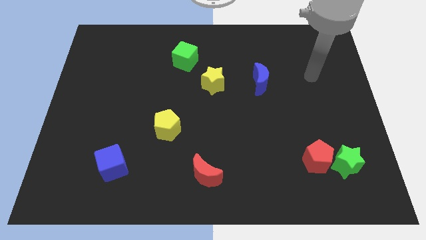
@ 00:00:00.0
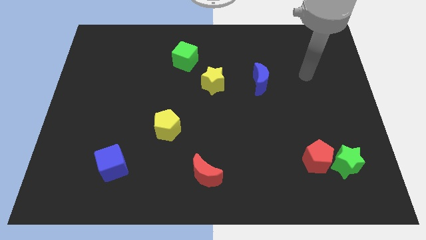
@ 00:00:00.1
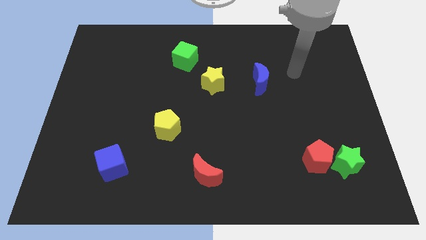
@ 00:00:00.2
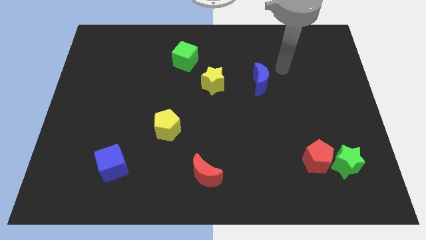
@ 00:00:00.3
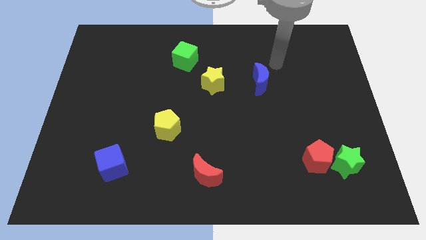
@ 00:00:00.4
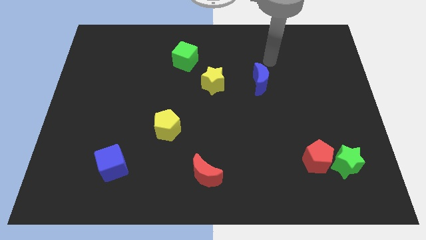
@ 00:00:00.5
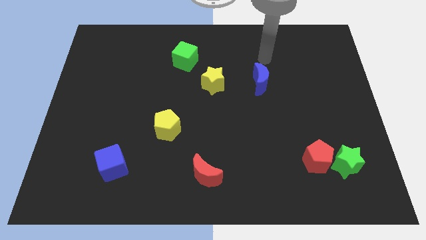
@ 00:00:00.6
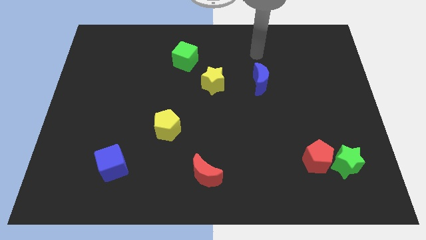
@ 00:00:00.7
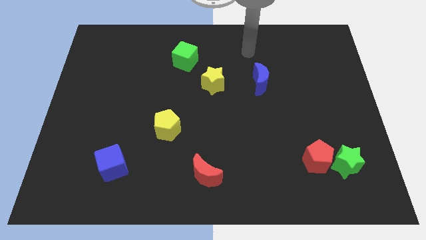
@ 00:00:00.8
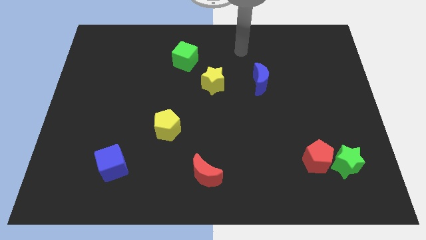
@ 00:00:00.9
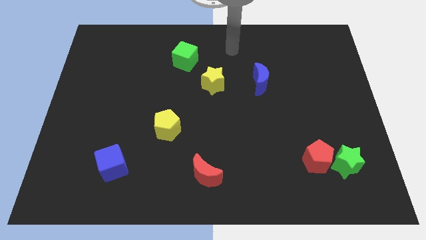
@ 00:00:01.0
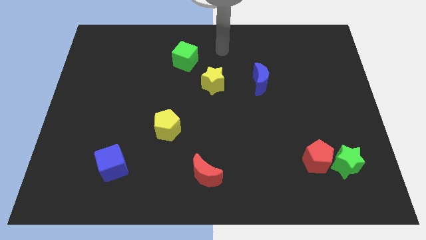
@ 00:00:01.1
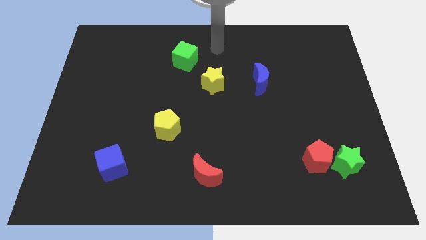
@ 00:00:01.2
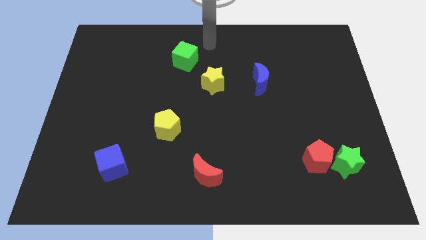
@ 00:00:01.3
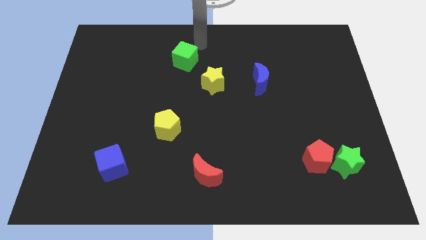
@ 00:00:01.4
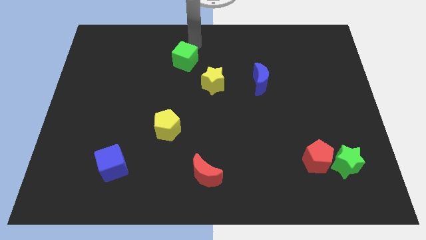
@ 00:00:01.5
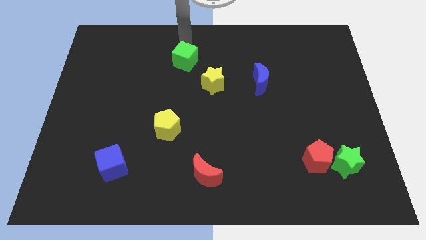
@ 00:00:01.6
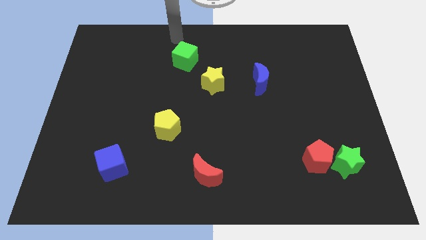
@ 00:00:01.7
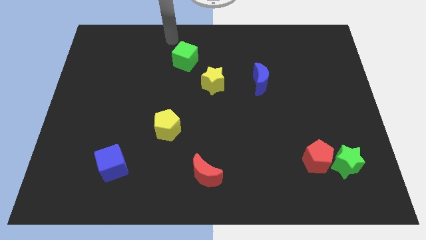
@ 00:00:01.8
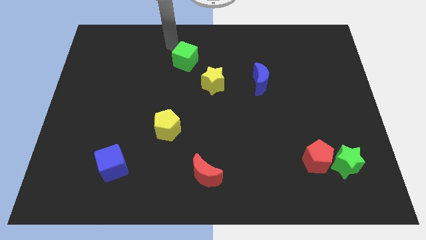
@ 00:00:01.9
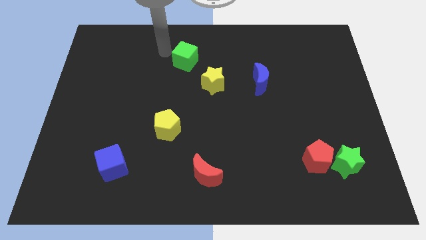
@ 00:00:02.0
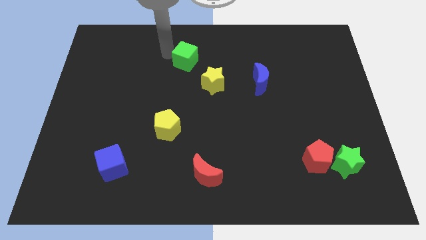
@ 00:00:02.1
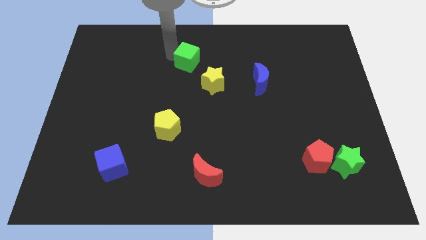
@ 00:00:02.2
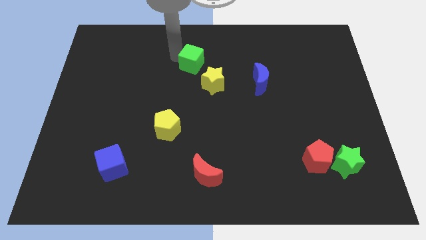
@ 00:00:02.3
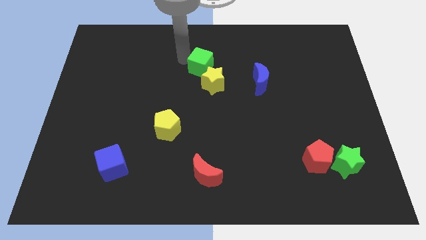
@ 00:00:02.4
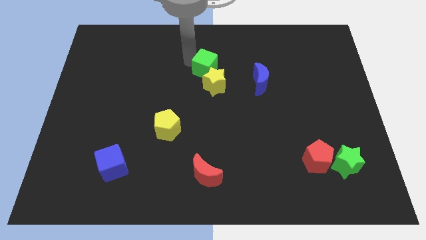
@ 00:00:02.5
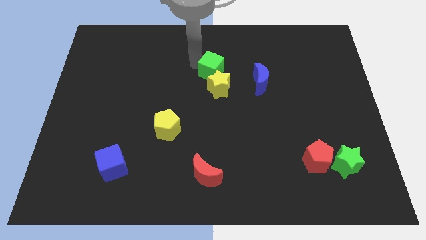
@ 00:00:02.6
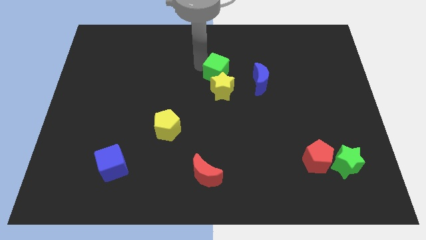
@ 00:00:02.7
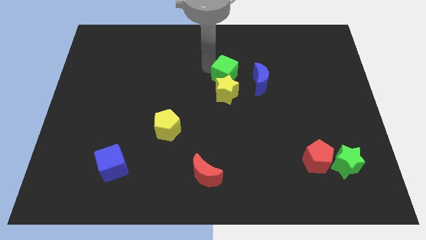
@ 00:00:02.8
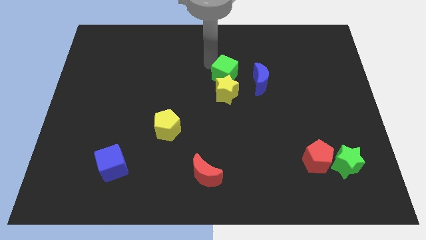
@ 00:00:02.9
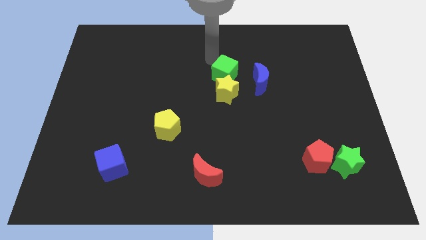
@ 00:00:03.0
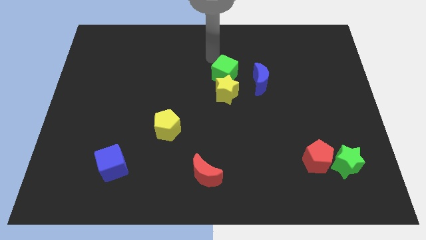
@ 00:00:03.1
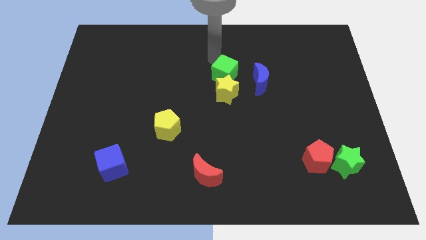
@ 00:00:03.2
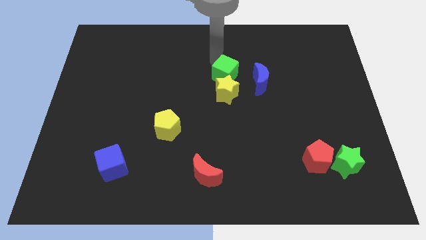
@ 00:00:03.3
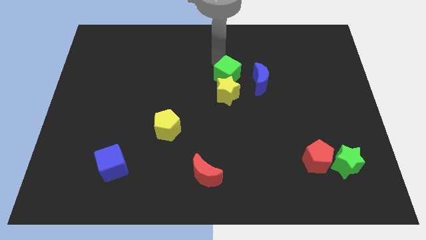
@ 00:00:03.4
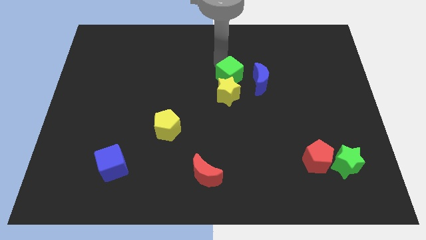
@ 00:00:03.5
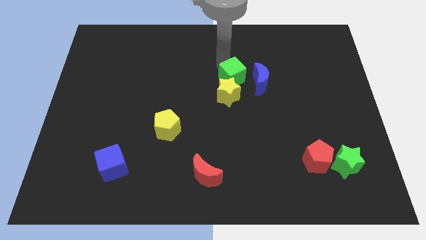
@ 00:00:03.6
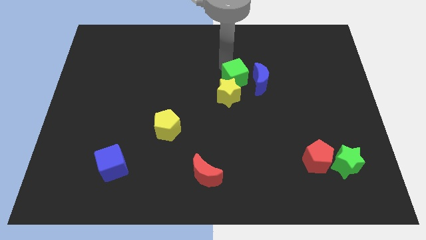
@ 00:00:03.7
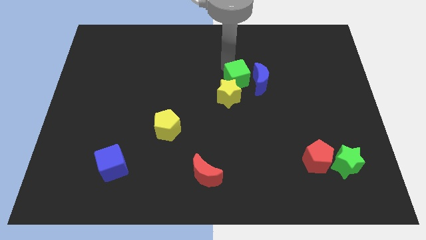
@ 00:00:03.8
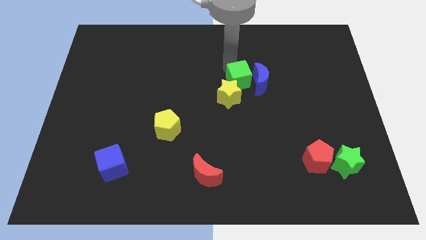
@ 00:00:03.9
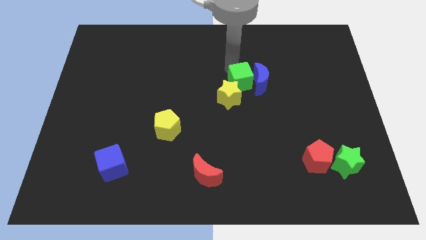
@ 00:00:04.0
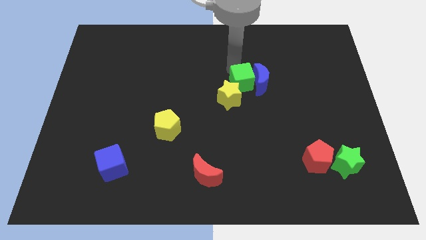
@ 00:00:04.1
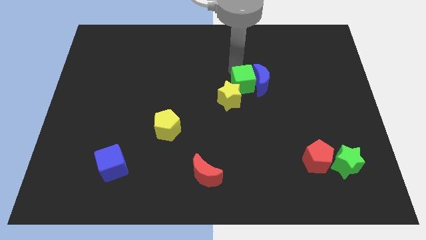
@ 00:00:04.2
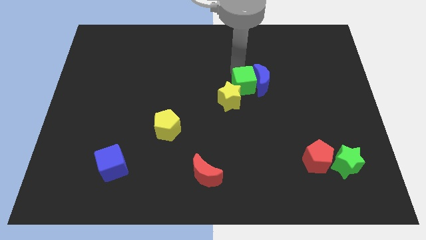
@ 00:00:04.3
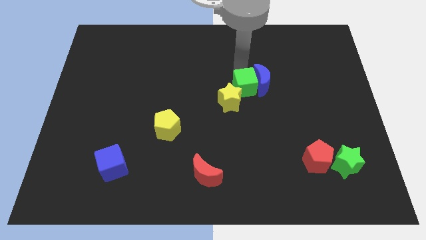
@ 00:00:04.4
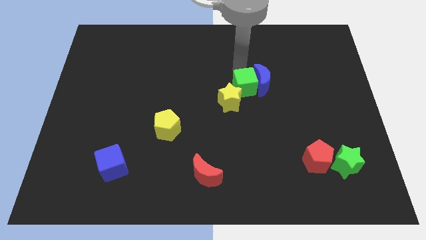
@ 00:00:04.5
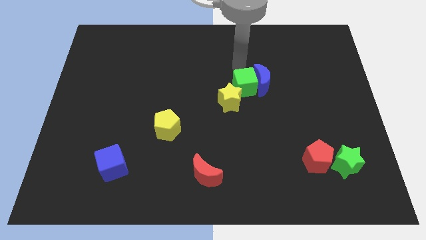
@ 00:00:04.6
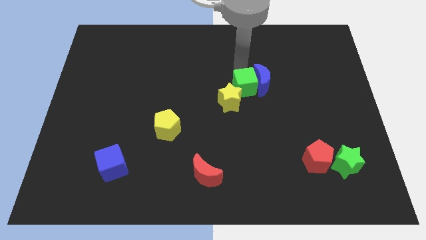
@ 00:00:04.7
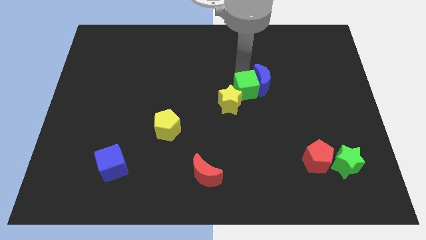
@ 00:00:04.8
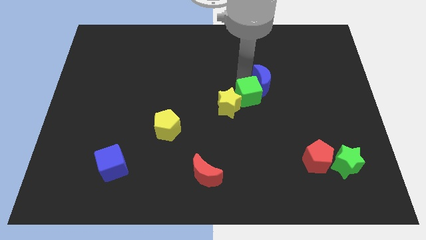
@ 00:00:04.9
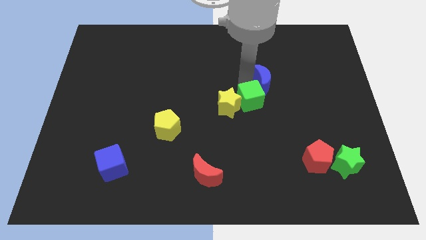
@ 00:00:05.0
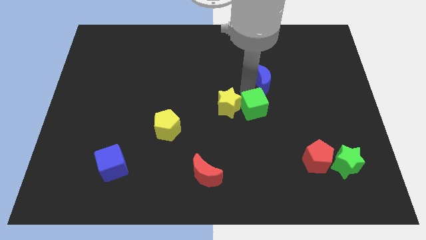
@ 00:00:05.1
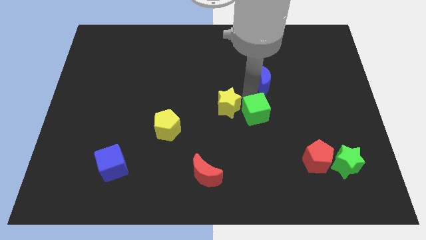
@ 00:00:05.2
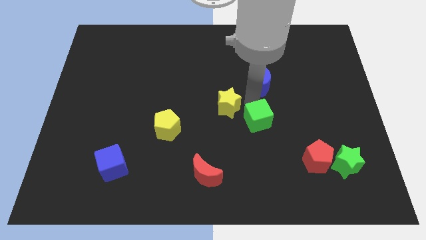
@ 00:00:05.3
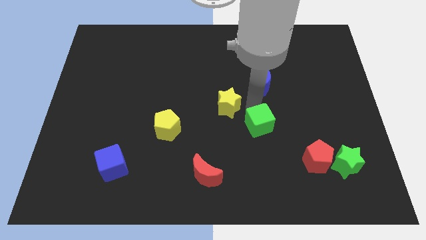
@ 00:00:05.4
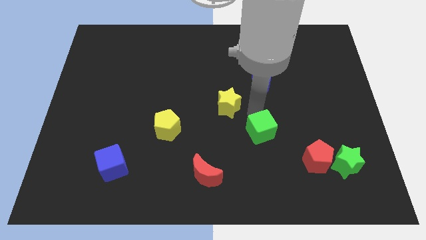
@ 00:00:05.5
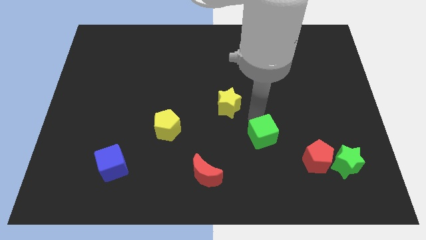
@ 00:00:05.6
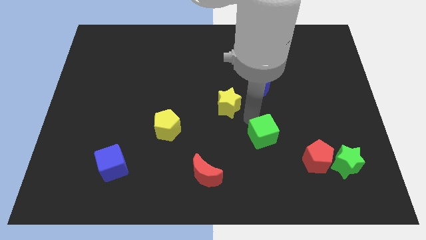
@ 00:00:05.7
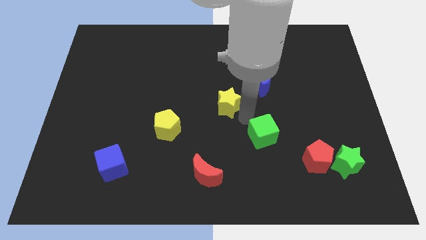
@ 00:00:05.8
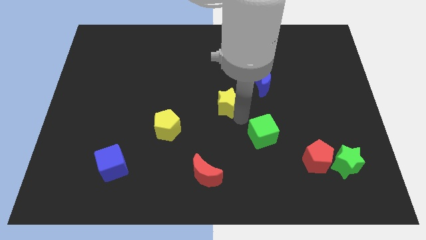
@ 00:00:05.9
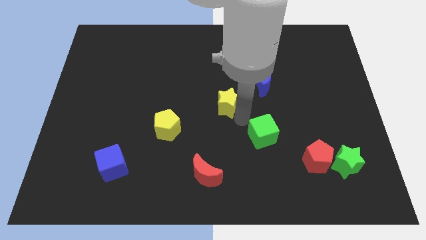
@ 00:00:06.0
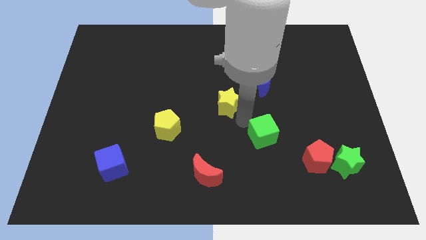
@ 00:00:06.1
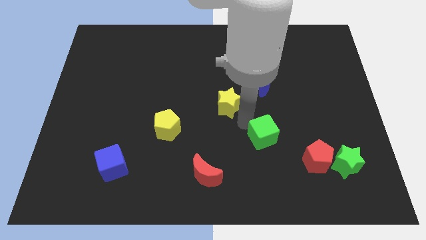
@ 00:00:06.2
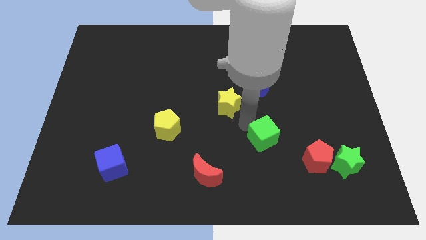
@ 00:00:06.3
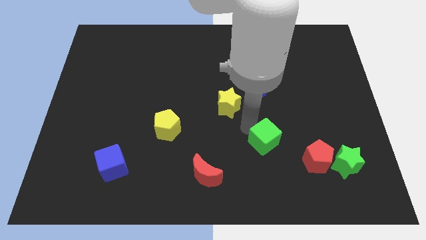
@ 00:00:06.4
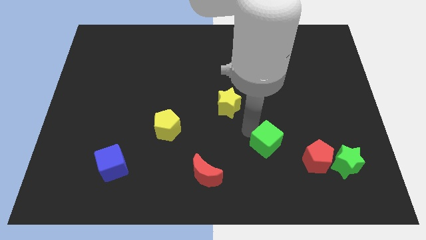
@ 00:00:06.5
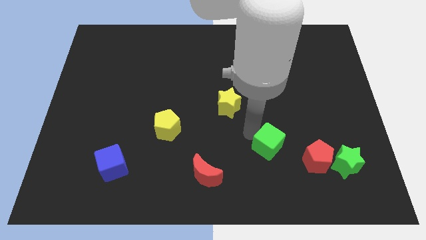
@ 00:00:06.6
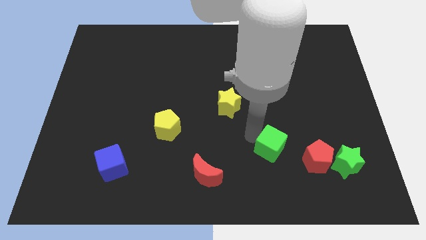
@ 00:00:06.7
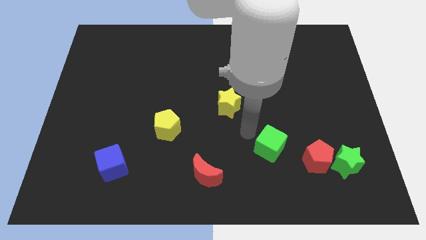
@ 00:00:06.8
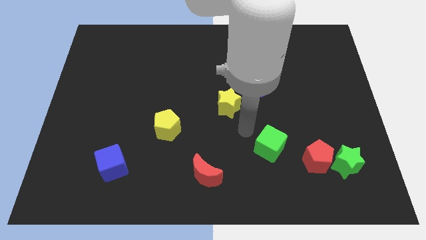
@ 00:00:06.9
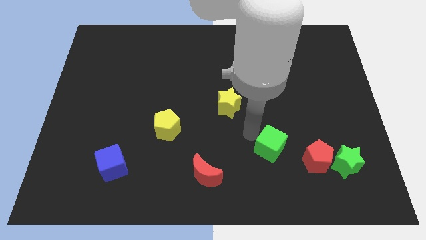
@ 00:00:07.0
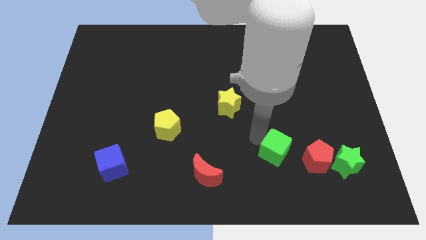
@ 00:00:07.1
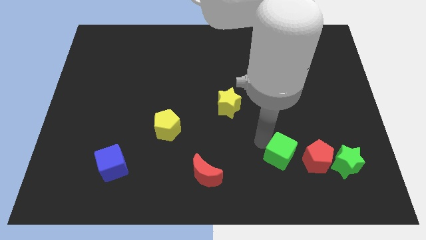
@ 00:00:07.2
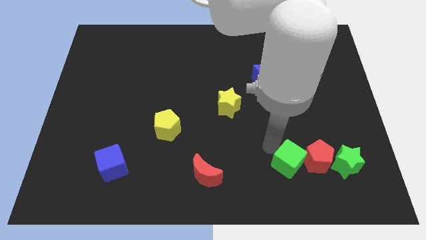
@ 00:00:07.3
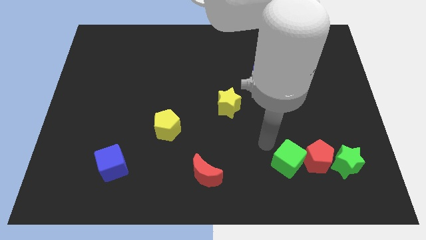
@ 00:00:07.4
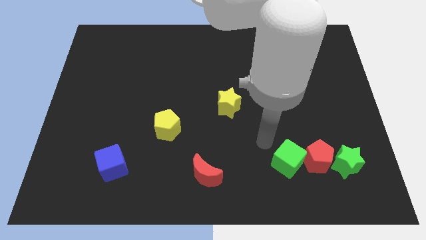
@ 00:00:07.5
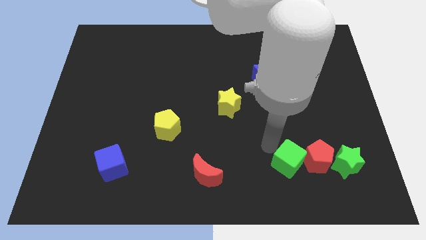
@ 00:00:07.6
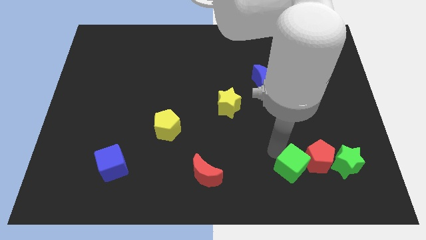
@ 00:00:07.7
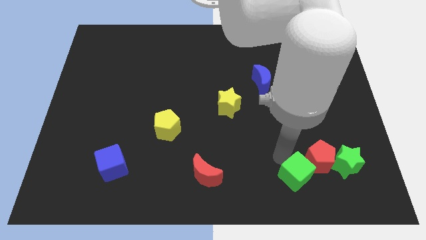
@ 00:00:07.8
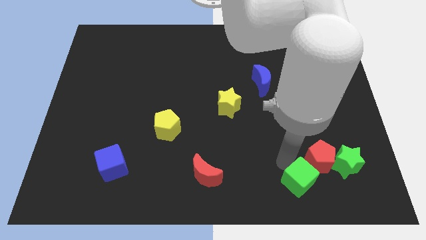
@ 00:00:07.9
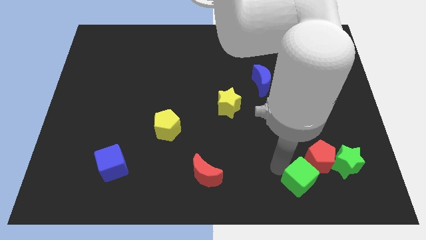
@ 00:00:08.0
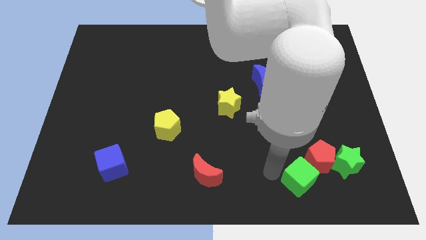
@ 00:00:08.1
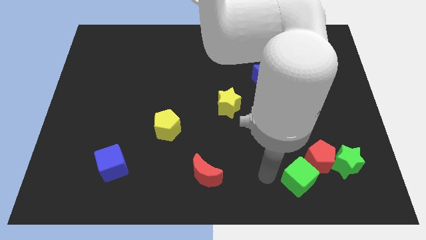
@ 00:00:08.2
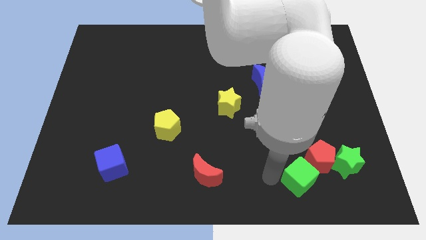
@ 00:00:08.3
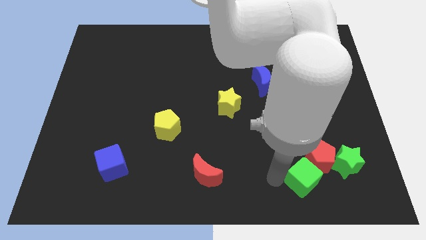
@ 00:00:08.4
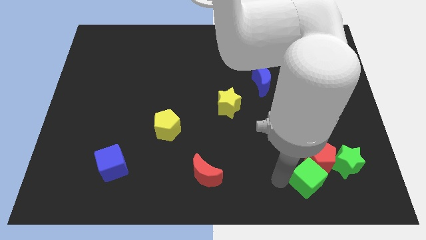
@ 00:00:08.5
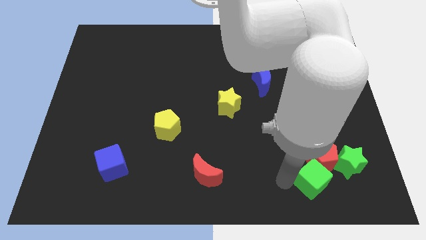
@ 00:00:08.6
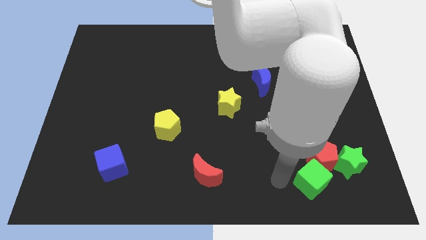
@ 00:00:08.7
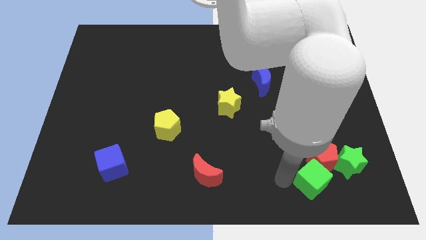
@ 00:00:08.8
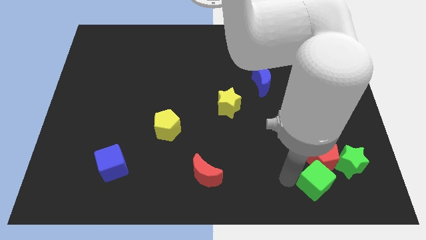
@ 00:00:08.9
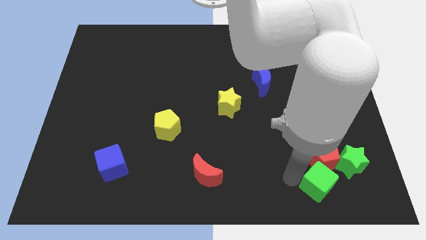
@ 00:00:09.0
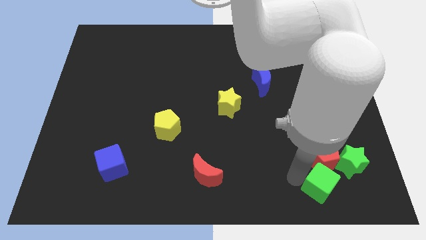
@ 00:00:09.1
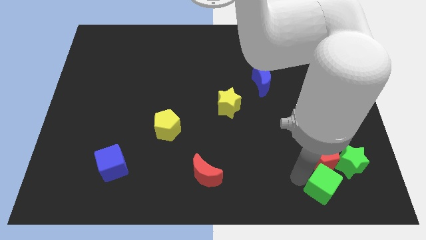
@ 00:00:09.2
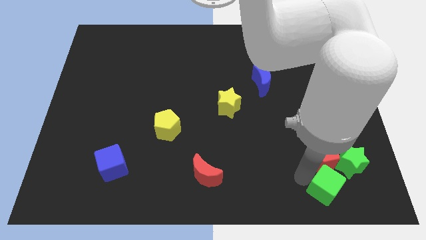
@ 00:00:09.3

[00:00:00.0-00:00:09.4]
put the green cube to the bottom right of the red pentagon
